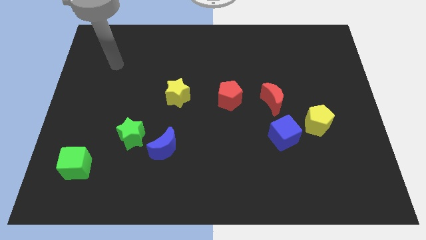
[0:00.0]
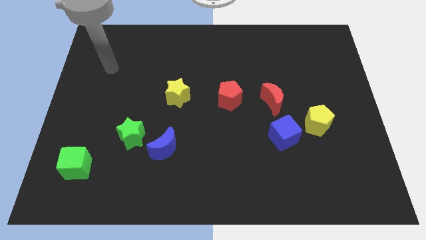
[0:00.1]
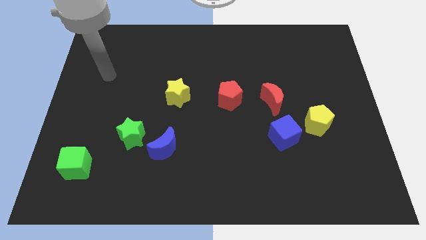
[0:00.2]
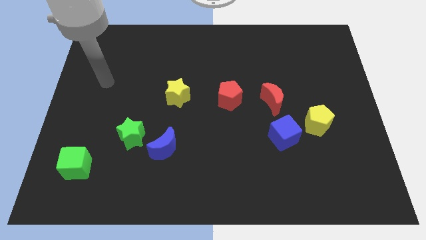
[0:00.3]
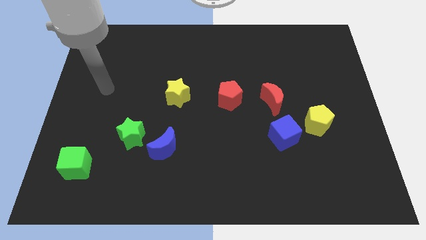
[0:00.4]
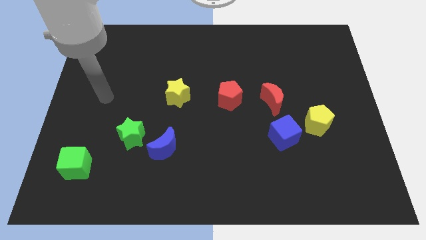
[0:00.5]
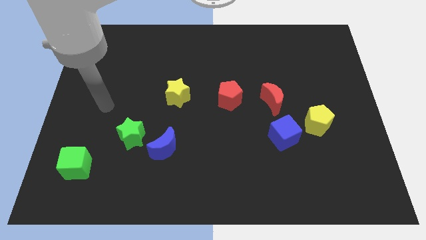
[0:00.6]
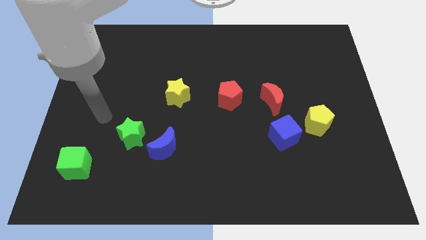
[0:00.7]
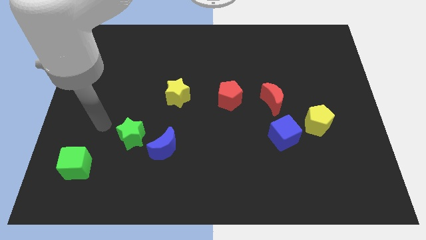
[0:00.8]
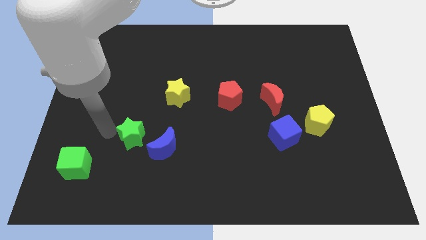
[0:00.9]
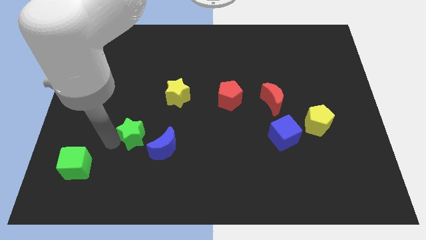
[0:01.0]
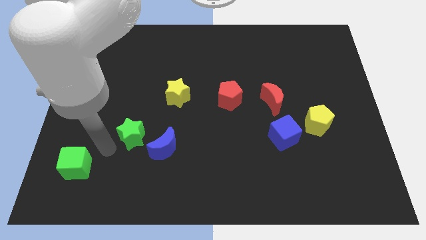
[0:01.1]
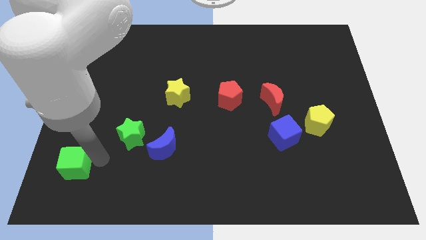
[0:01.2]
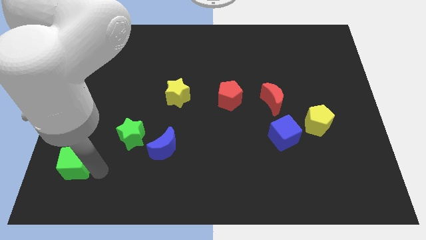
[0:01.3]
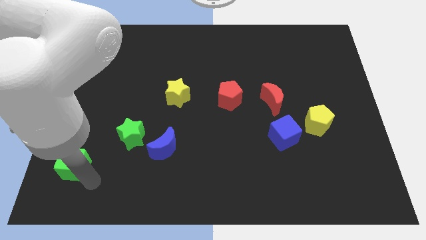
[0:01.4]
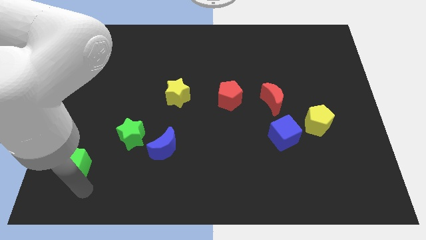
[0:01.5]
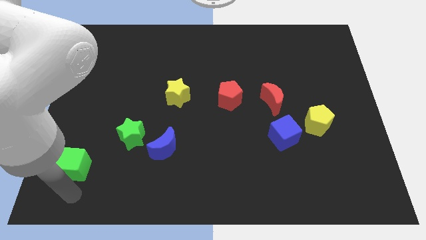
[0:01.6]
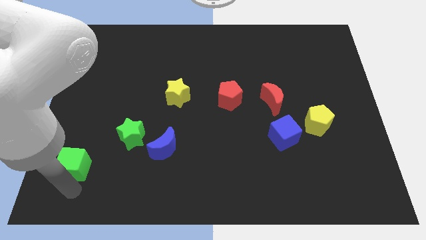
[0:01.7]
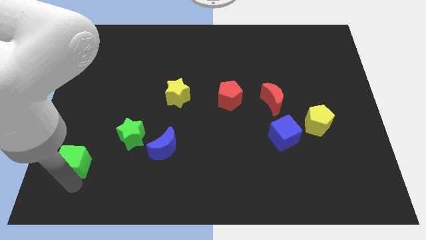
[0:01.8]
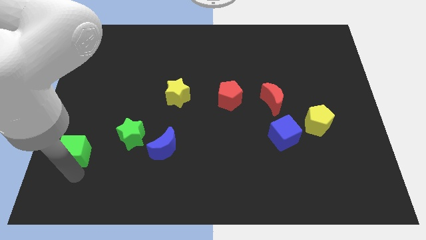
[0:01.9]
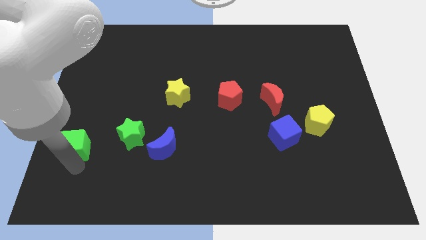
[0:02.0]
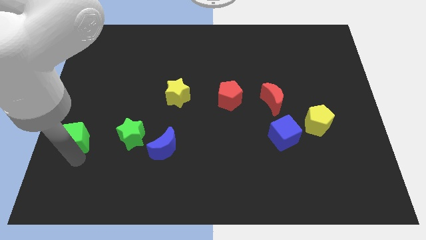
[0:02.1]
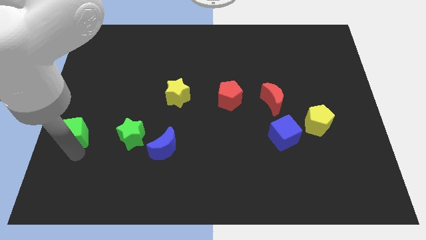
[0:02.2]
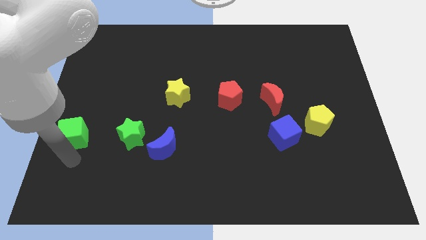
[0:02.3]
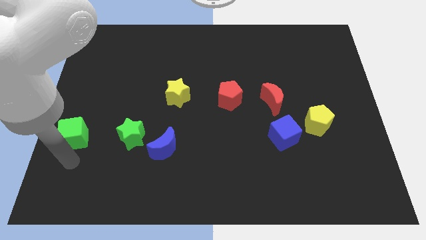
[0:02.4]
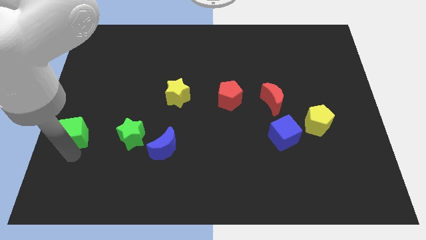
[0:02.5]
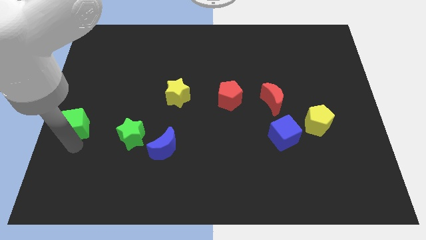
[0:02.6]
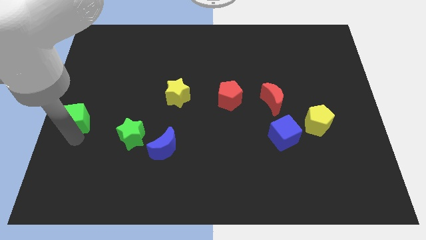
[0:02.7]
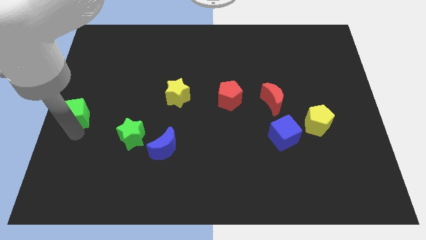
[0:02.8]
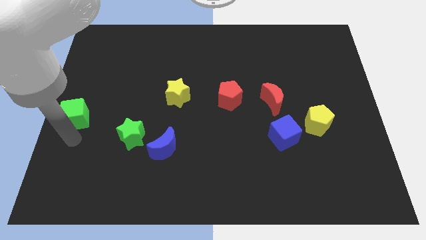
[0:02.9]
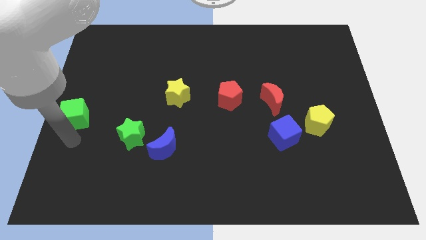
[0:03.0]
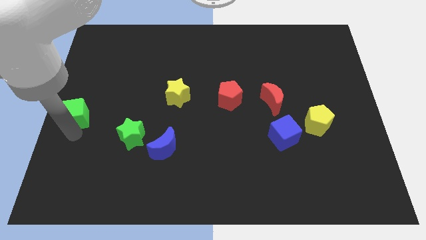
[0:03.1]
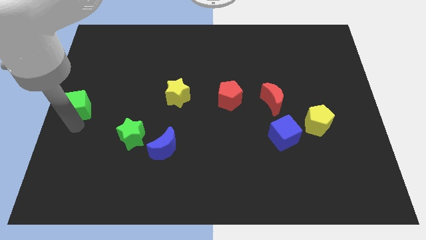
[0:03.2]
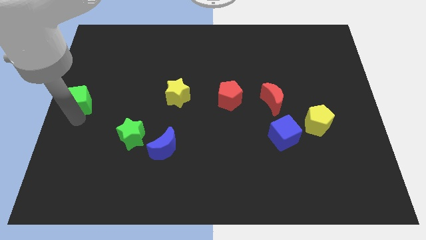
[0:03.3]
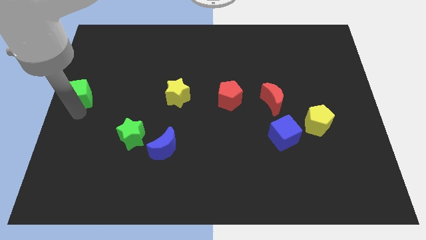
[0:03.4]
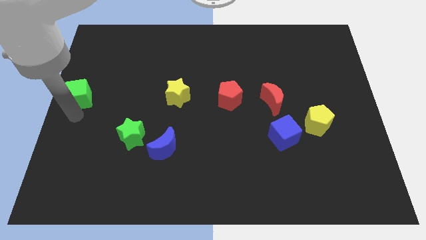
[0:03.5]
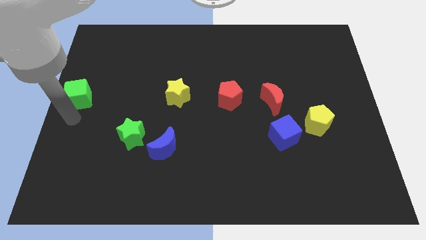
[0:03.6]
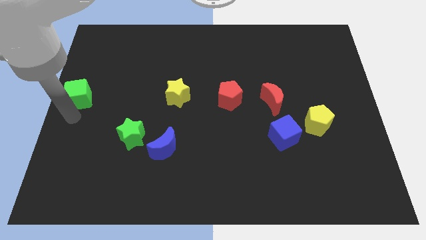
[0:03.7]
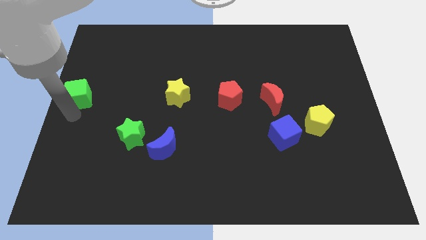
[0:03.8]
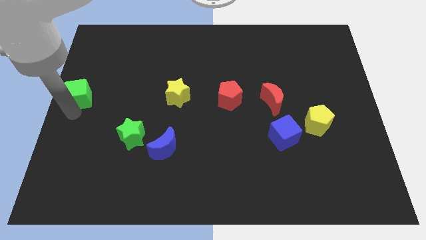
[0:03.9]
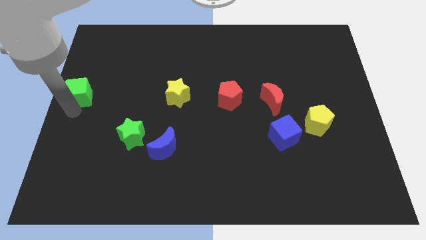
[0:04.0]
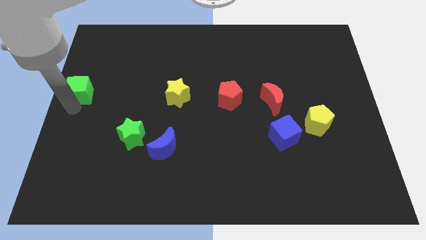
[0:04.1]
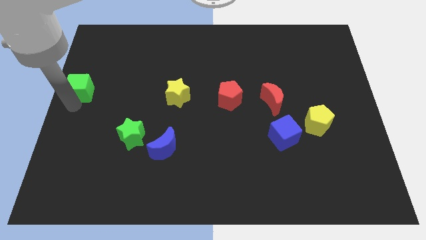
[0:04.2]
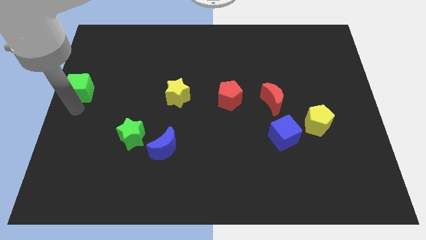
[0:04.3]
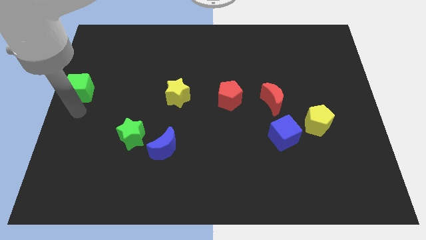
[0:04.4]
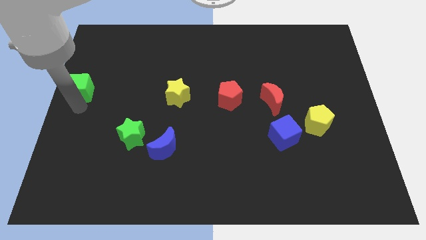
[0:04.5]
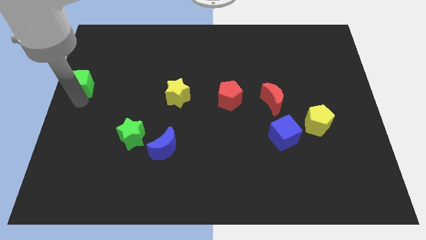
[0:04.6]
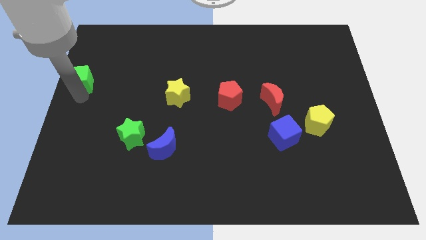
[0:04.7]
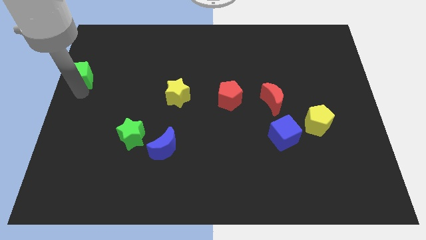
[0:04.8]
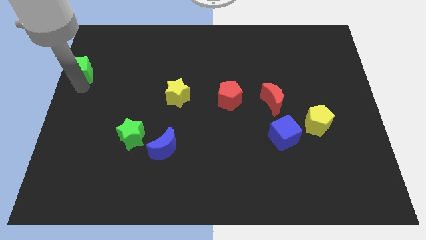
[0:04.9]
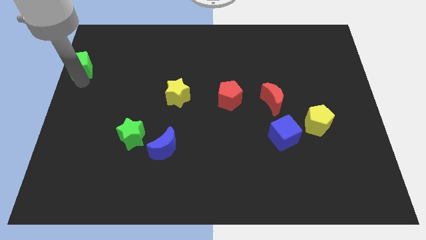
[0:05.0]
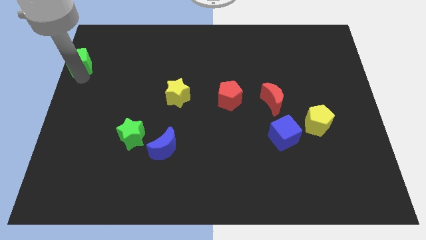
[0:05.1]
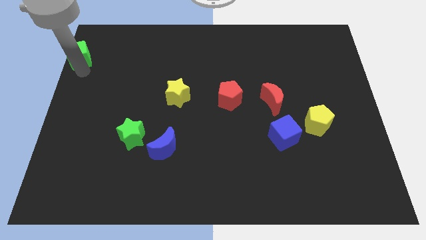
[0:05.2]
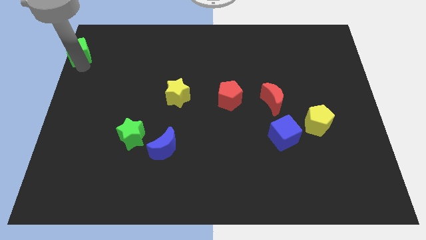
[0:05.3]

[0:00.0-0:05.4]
move the green cube to the top left corner

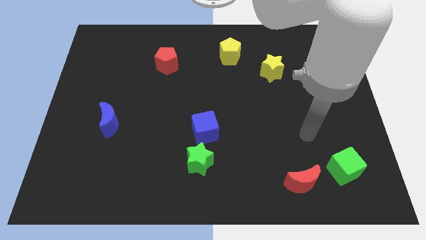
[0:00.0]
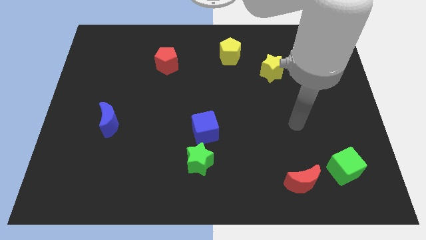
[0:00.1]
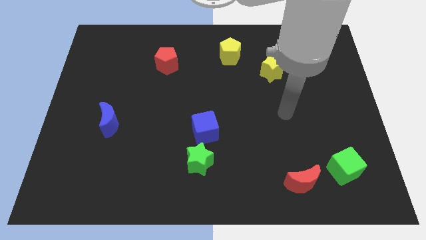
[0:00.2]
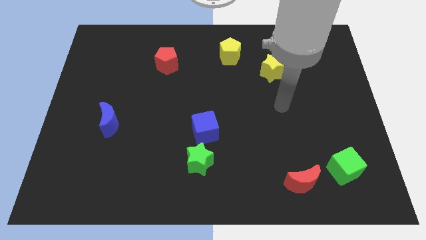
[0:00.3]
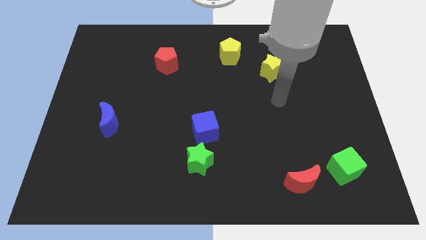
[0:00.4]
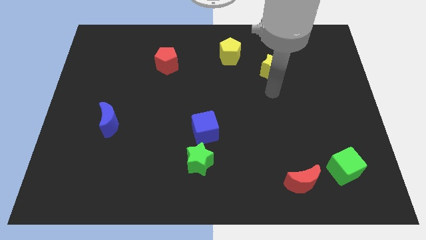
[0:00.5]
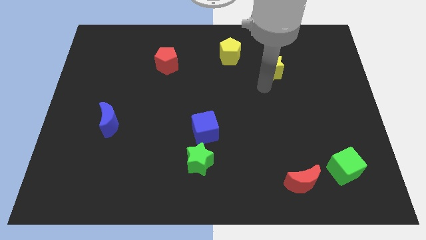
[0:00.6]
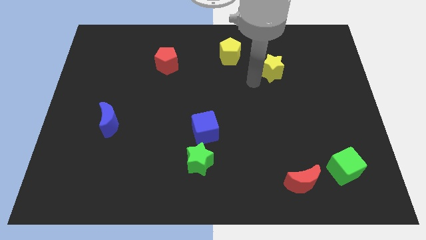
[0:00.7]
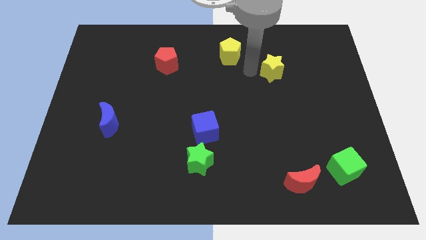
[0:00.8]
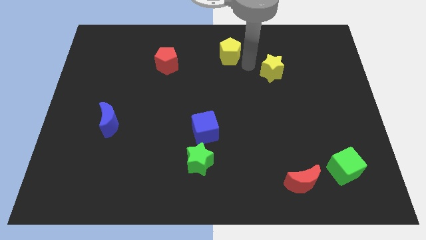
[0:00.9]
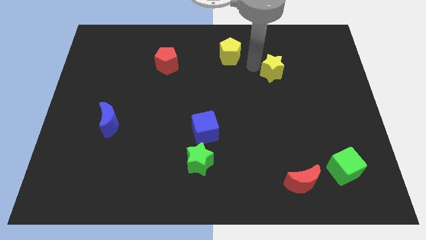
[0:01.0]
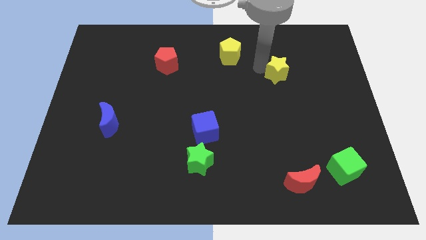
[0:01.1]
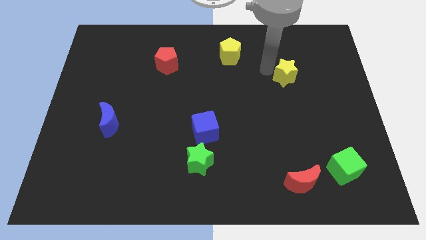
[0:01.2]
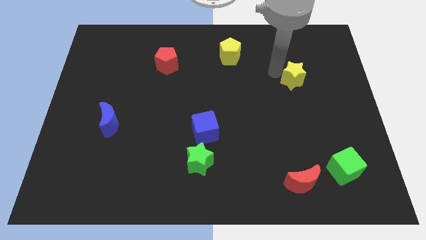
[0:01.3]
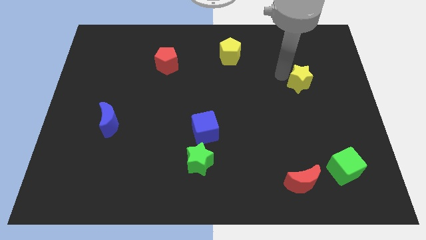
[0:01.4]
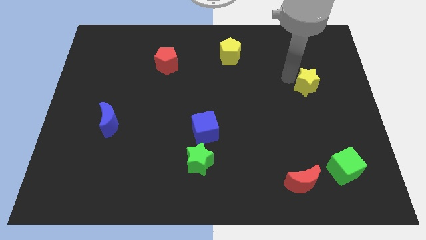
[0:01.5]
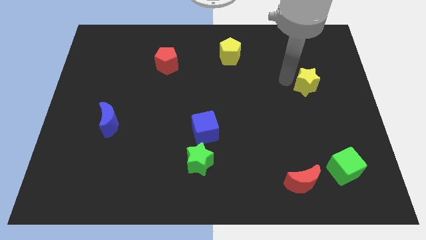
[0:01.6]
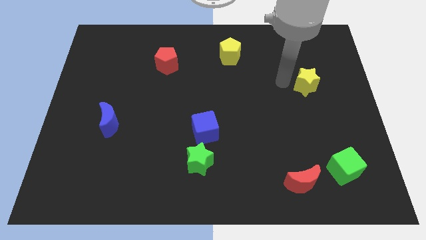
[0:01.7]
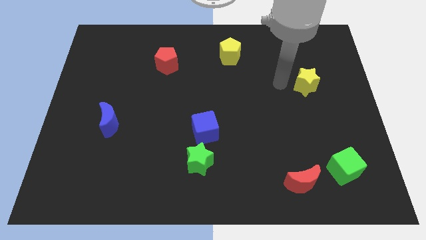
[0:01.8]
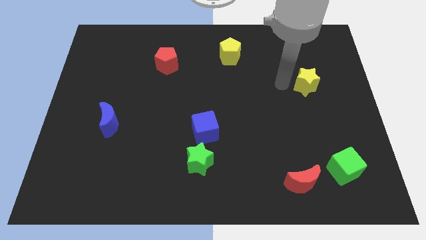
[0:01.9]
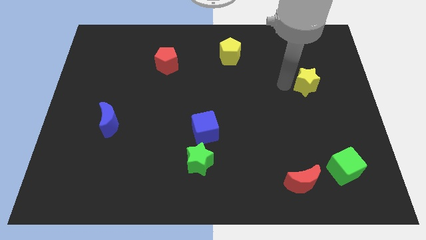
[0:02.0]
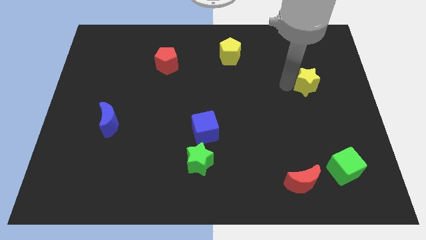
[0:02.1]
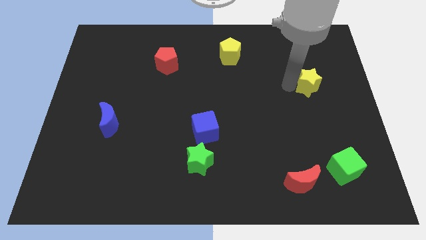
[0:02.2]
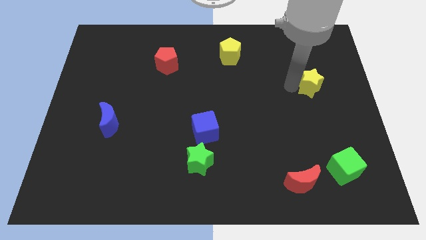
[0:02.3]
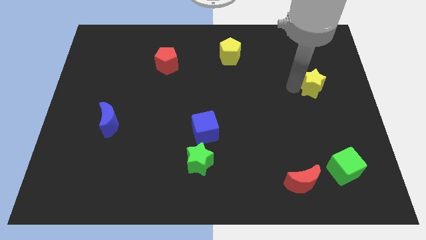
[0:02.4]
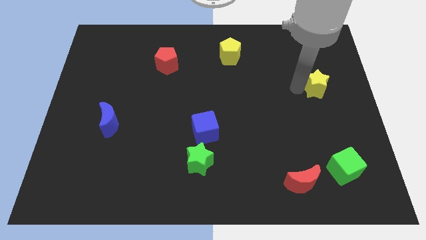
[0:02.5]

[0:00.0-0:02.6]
put the yellow star to the right side of the board
